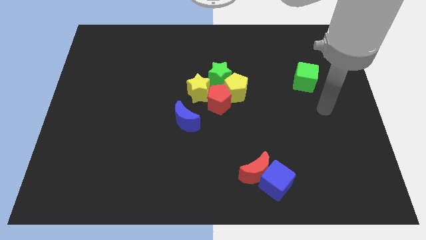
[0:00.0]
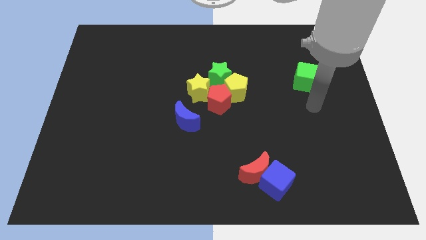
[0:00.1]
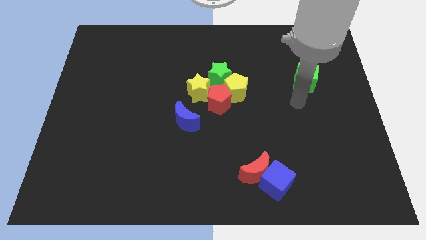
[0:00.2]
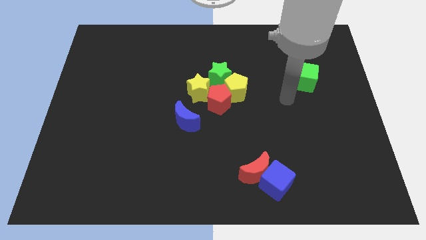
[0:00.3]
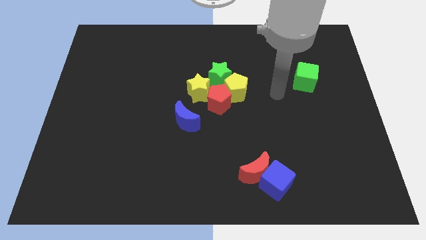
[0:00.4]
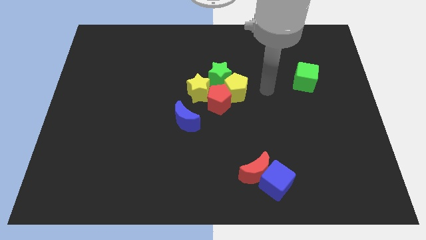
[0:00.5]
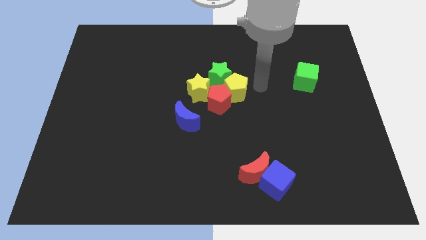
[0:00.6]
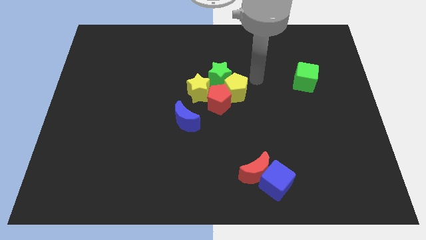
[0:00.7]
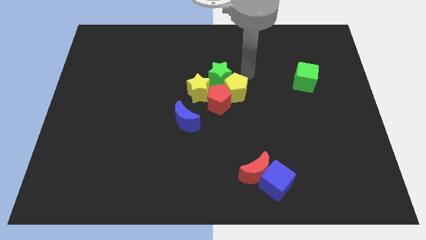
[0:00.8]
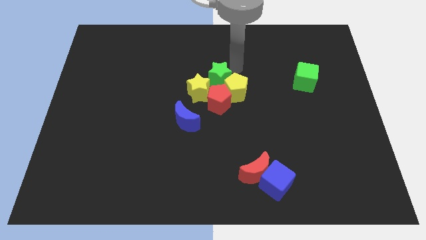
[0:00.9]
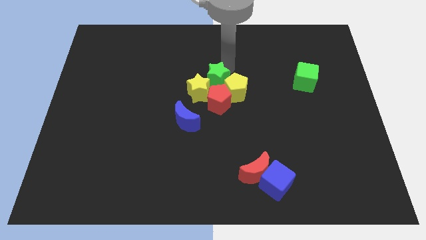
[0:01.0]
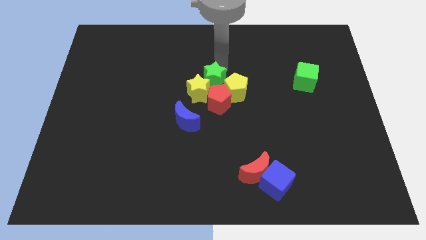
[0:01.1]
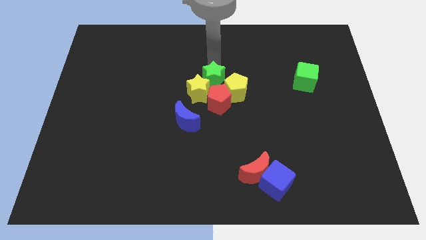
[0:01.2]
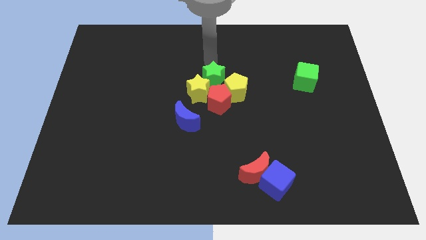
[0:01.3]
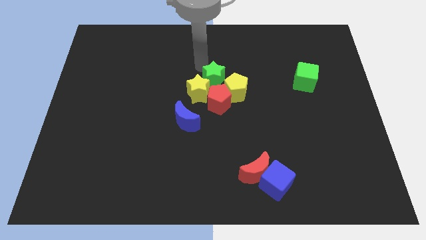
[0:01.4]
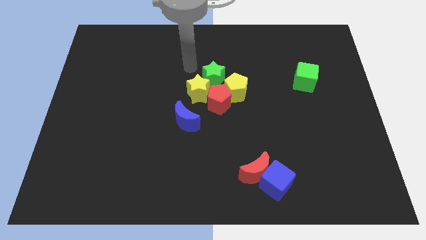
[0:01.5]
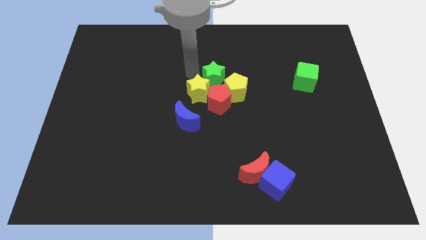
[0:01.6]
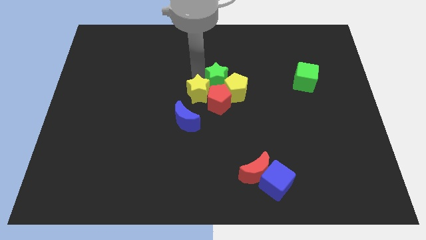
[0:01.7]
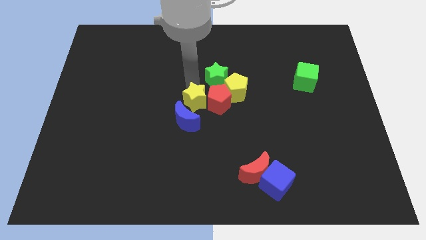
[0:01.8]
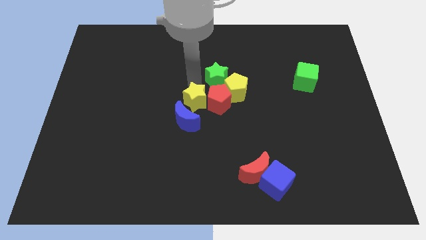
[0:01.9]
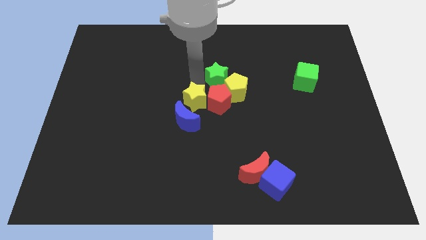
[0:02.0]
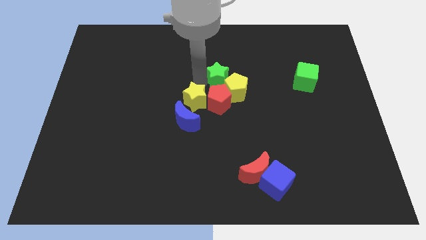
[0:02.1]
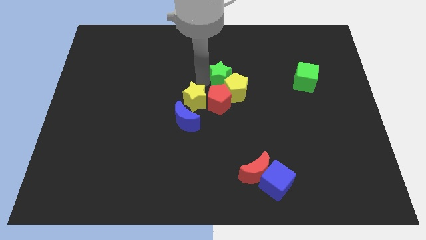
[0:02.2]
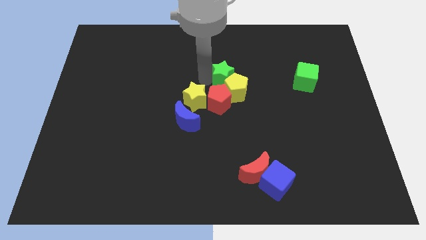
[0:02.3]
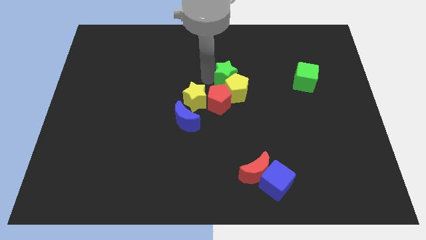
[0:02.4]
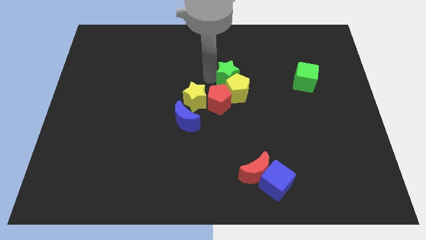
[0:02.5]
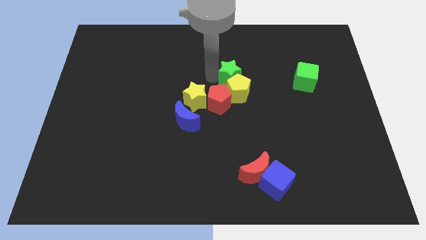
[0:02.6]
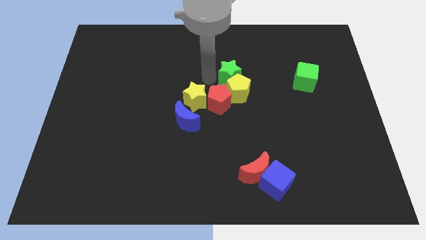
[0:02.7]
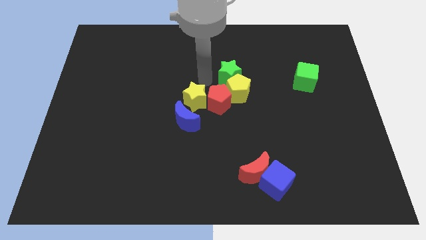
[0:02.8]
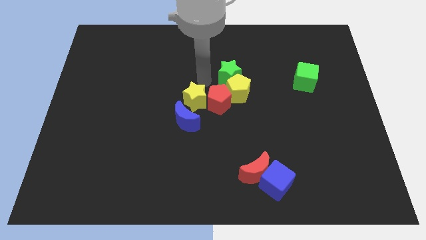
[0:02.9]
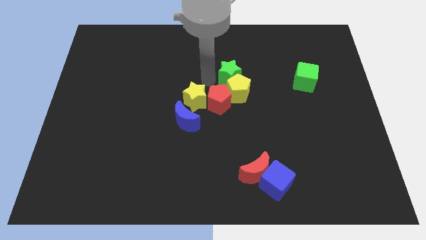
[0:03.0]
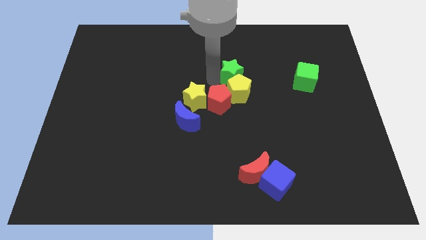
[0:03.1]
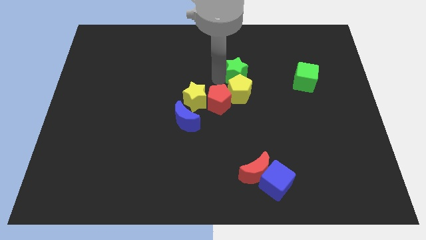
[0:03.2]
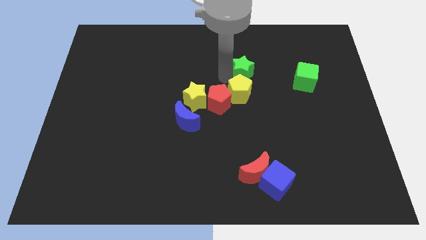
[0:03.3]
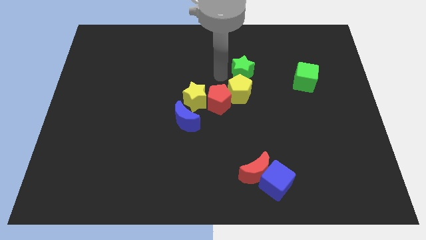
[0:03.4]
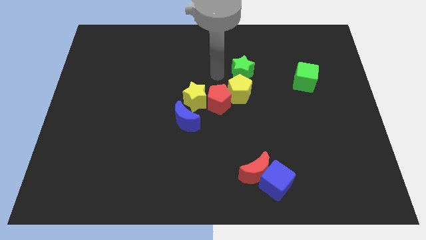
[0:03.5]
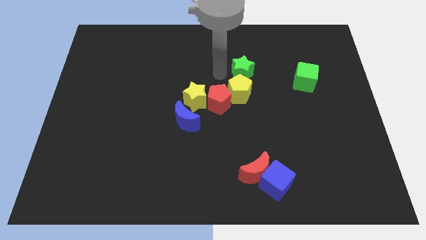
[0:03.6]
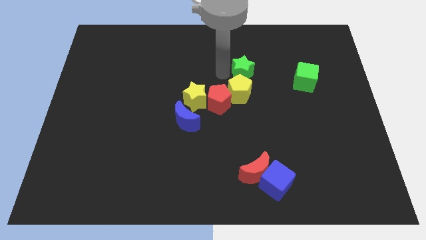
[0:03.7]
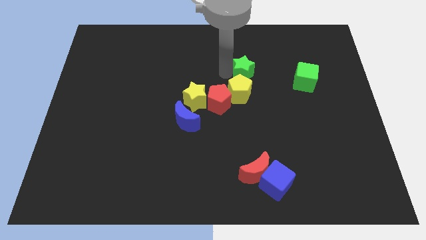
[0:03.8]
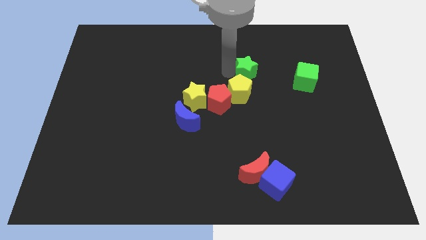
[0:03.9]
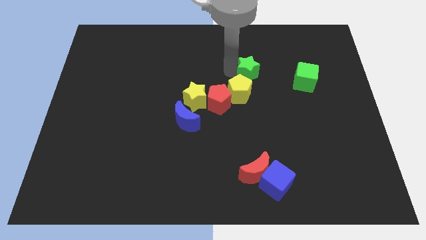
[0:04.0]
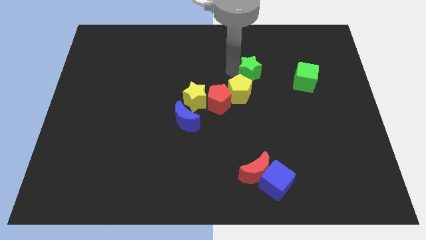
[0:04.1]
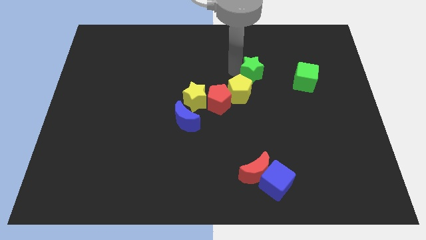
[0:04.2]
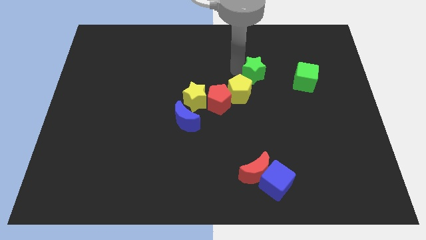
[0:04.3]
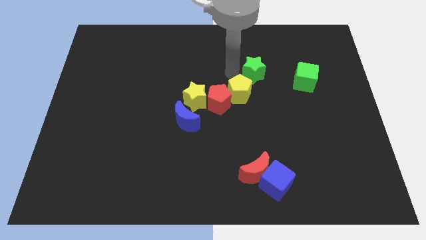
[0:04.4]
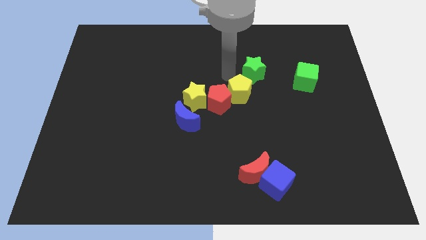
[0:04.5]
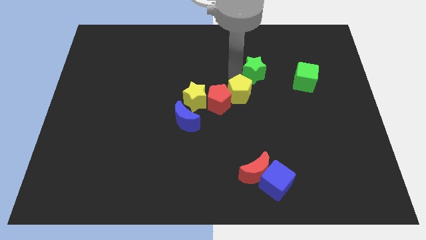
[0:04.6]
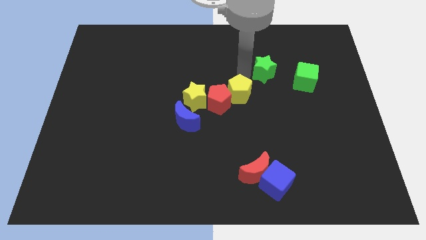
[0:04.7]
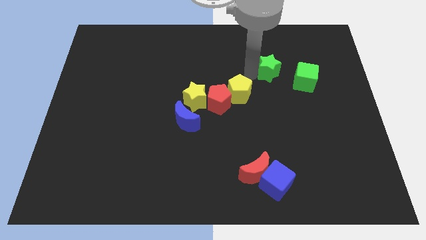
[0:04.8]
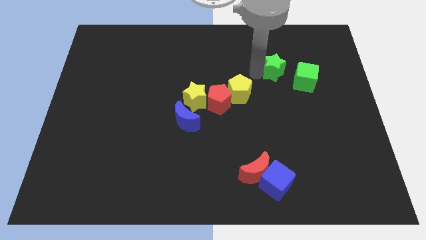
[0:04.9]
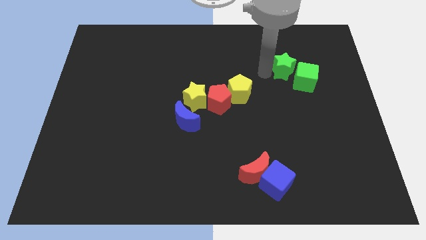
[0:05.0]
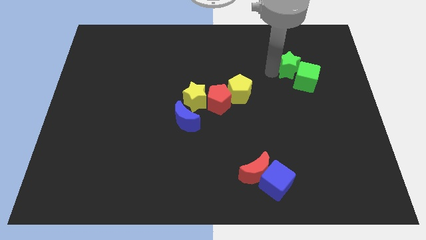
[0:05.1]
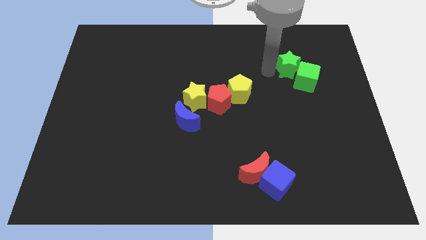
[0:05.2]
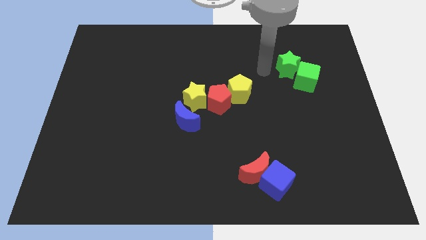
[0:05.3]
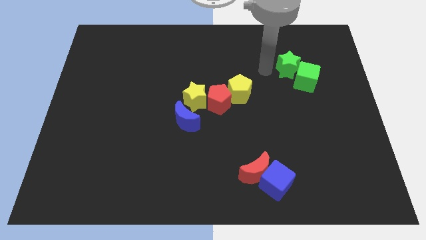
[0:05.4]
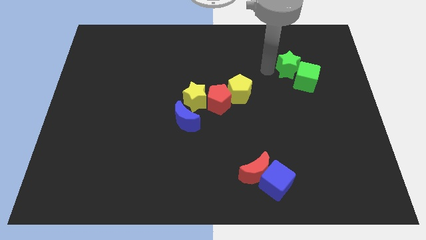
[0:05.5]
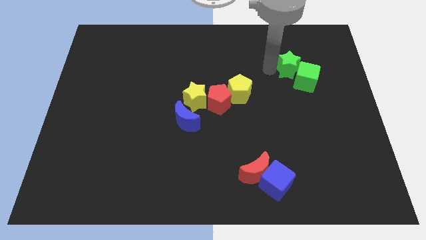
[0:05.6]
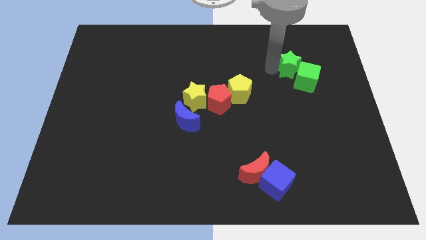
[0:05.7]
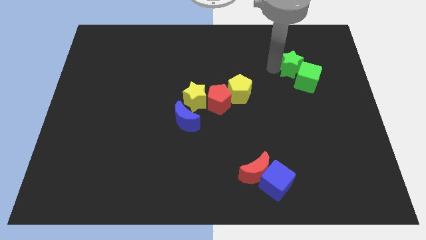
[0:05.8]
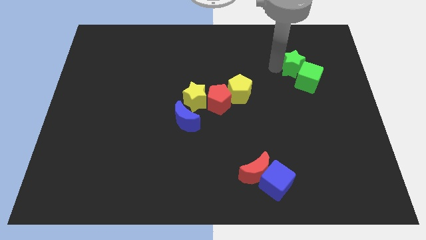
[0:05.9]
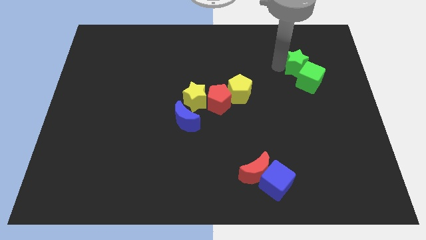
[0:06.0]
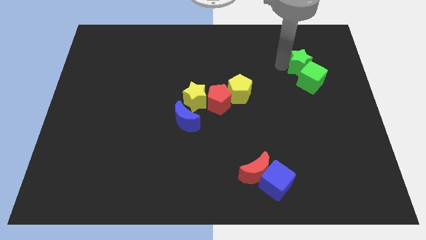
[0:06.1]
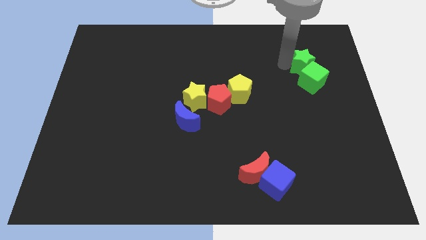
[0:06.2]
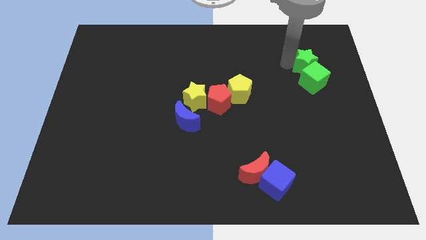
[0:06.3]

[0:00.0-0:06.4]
put the green star to the top right of the green cube

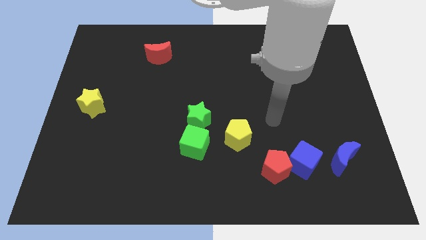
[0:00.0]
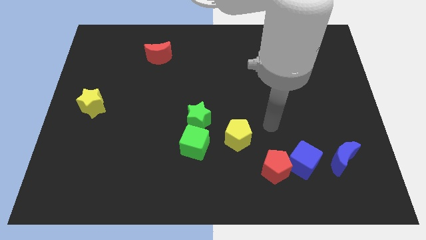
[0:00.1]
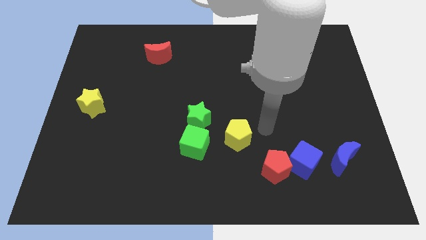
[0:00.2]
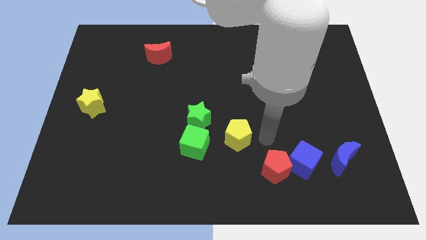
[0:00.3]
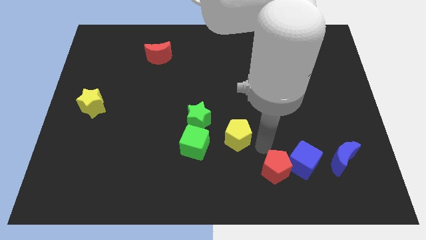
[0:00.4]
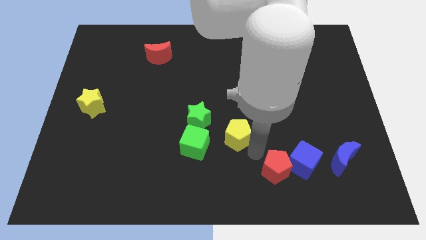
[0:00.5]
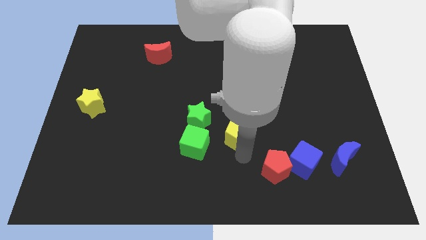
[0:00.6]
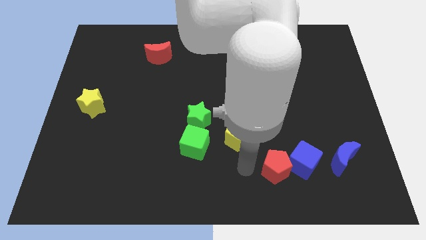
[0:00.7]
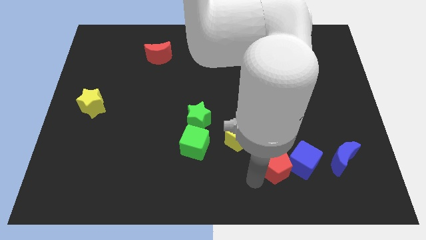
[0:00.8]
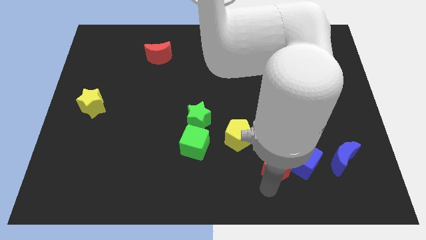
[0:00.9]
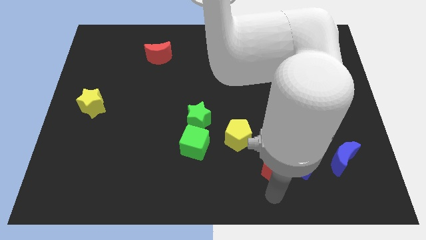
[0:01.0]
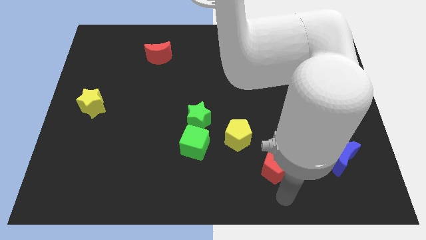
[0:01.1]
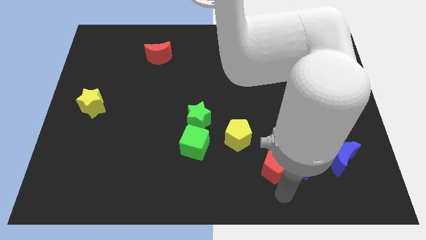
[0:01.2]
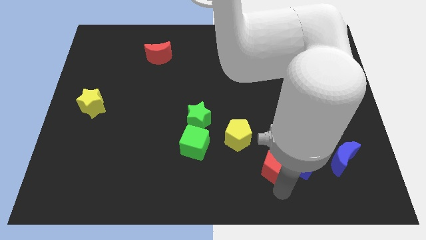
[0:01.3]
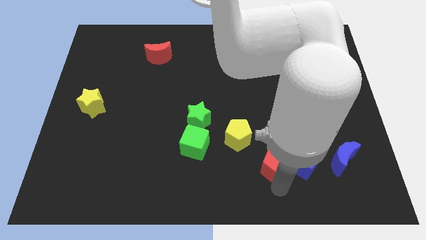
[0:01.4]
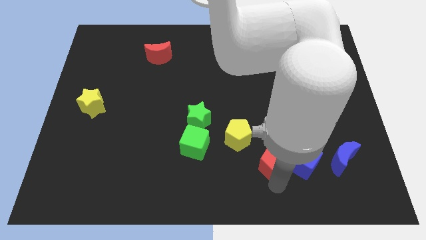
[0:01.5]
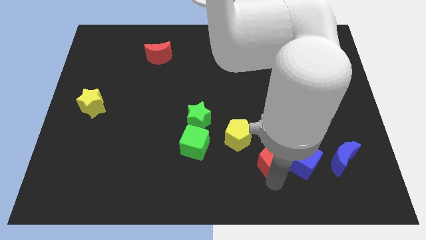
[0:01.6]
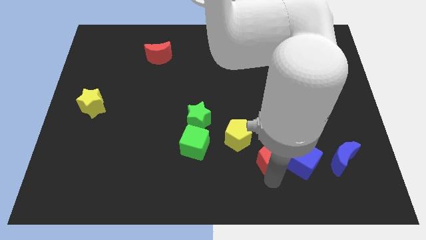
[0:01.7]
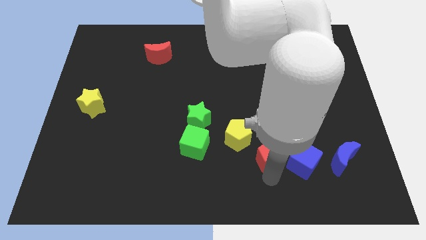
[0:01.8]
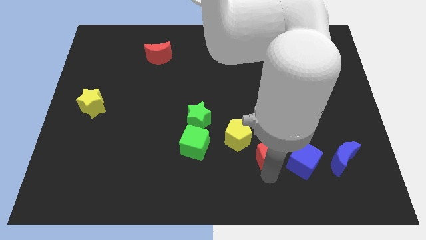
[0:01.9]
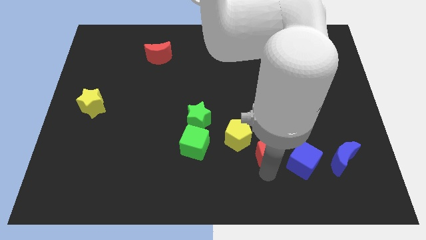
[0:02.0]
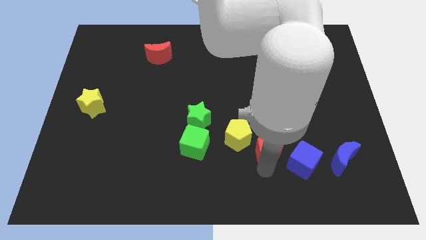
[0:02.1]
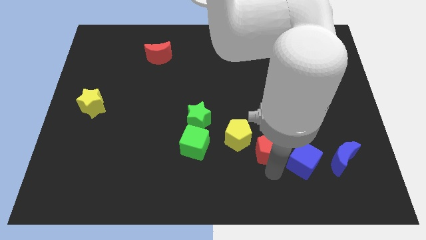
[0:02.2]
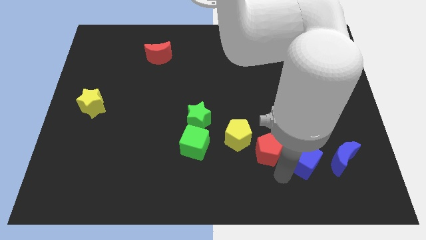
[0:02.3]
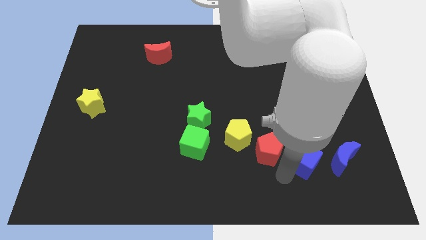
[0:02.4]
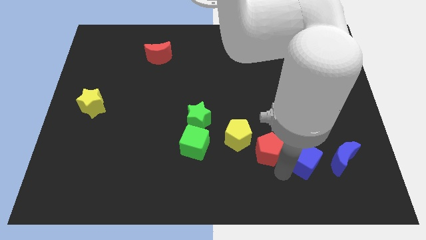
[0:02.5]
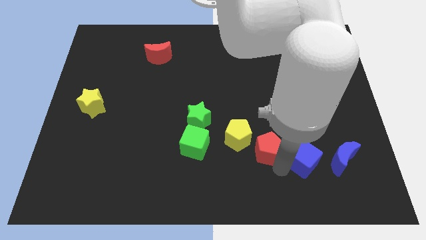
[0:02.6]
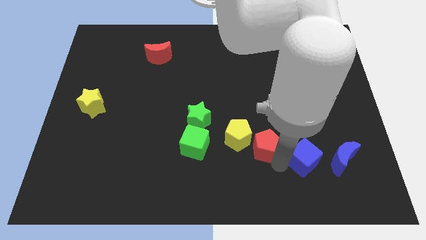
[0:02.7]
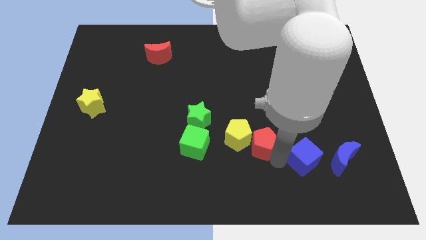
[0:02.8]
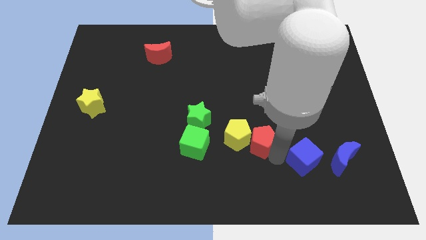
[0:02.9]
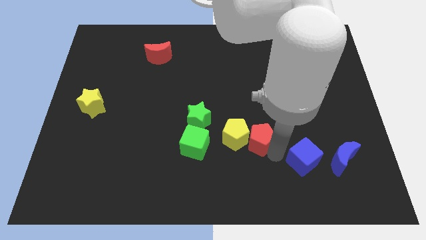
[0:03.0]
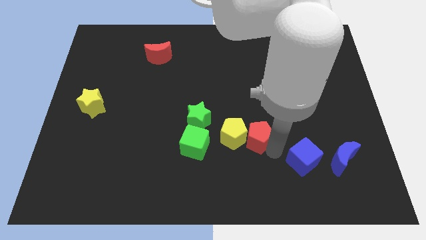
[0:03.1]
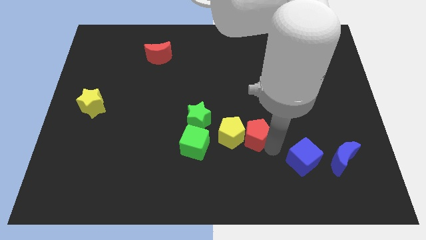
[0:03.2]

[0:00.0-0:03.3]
push the red pentagon right of the green star
